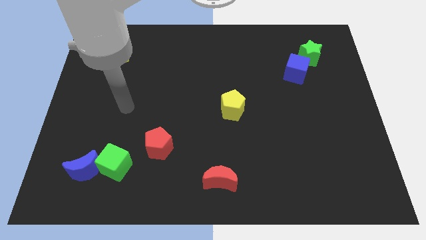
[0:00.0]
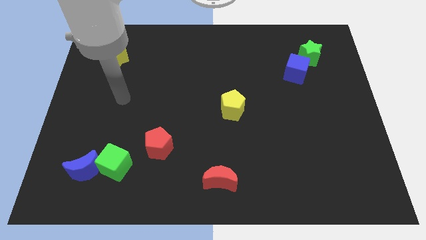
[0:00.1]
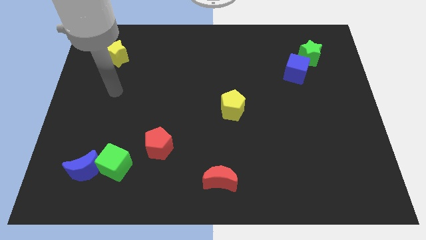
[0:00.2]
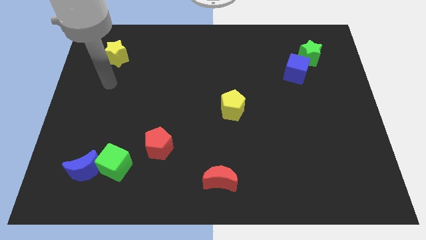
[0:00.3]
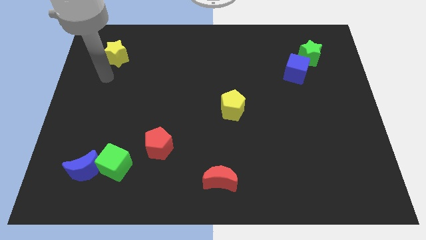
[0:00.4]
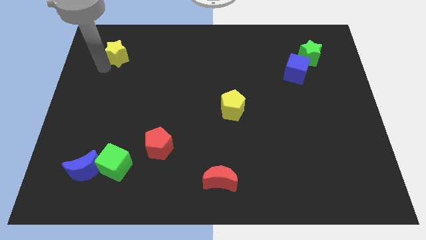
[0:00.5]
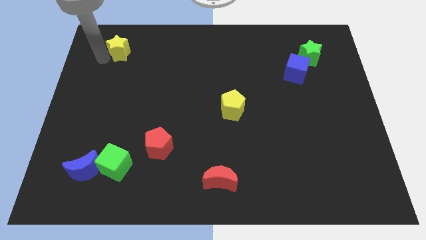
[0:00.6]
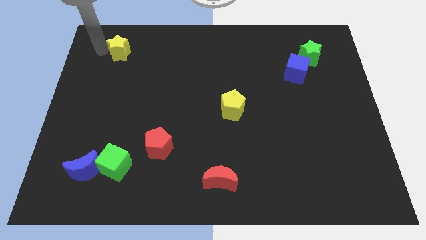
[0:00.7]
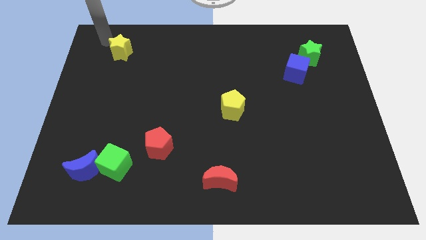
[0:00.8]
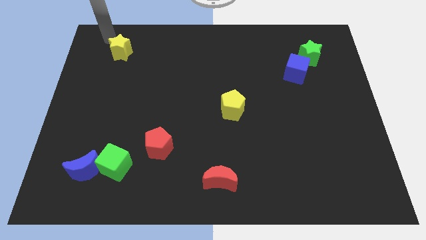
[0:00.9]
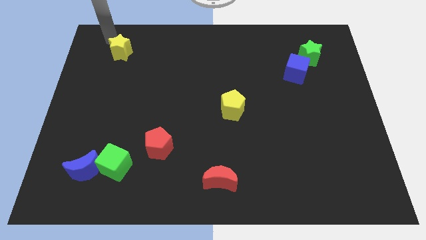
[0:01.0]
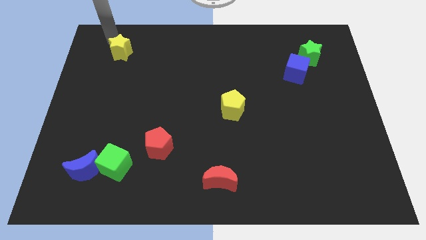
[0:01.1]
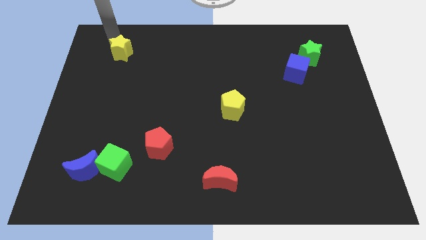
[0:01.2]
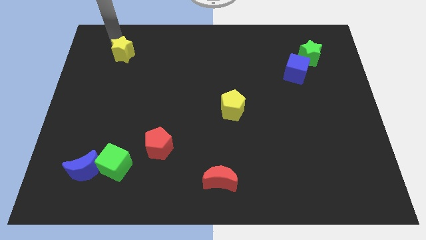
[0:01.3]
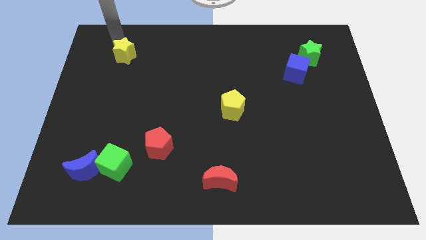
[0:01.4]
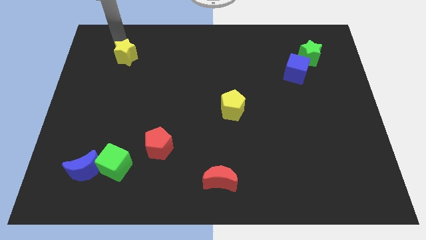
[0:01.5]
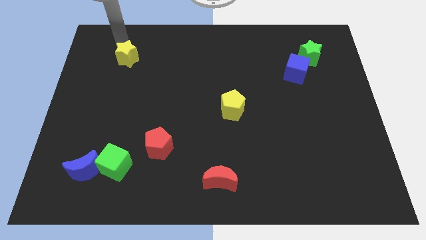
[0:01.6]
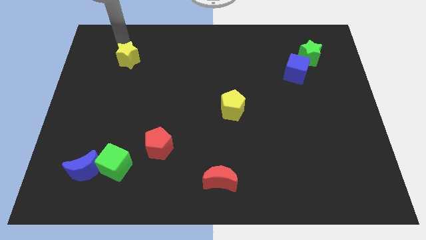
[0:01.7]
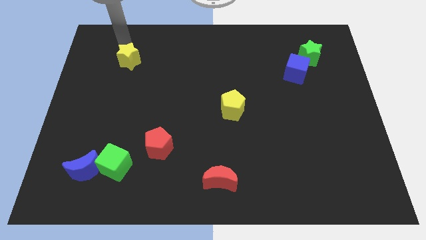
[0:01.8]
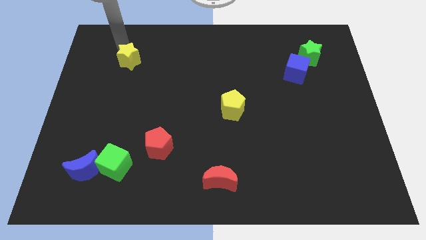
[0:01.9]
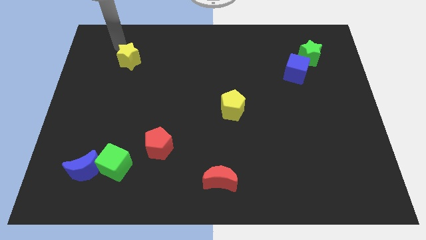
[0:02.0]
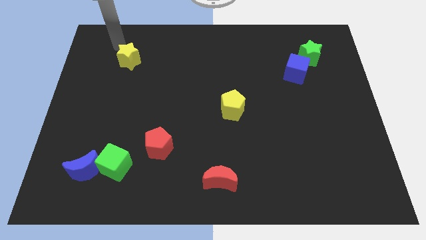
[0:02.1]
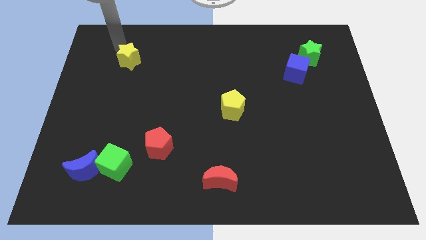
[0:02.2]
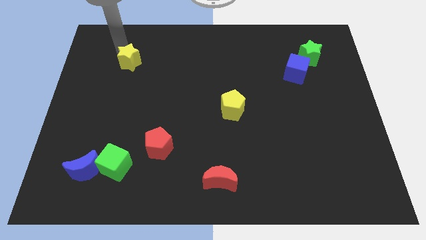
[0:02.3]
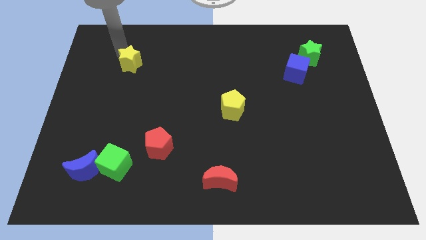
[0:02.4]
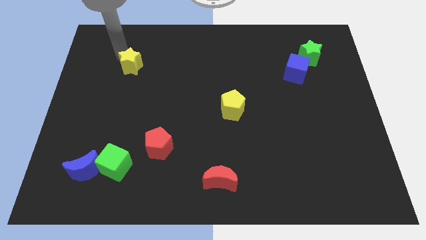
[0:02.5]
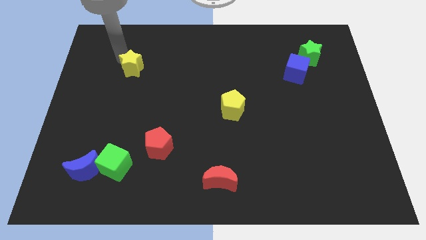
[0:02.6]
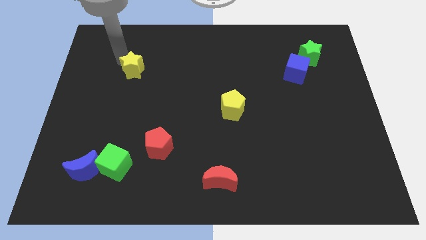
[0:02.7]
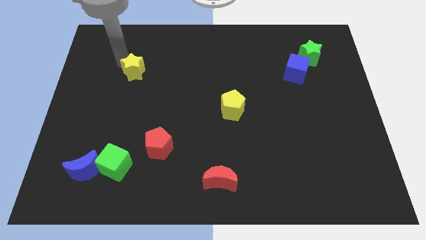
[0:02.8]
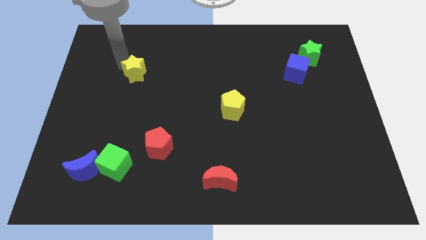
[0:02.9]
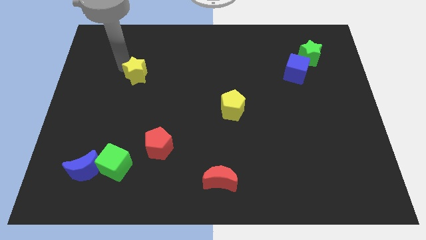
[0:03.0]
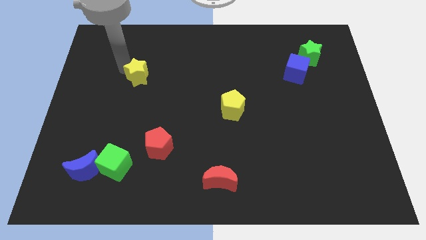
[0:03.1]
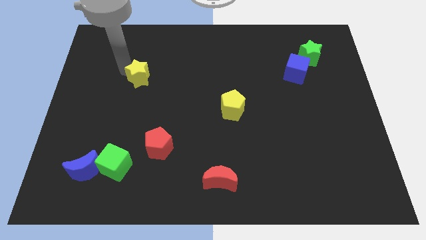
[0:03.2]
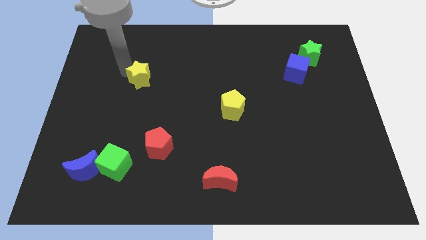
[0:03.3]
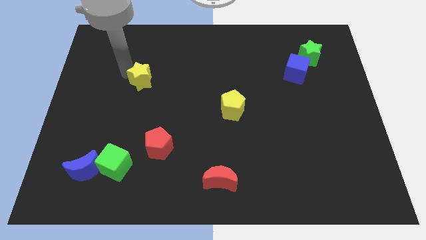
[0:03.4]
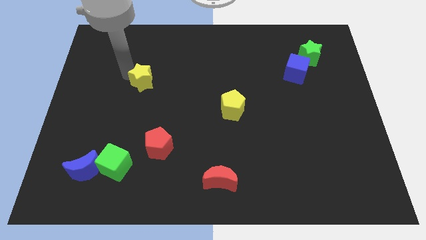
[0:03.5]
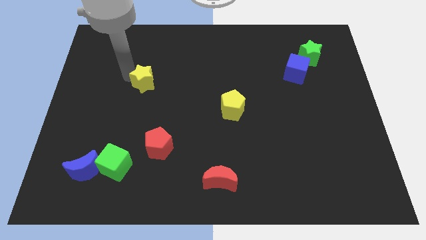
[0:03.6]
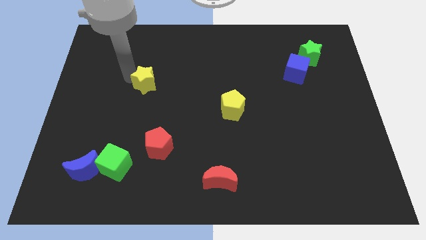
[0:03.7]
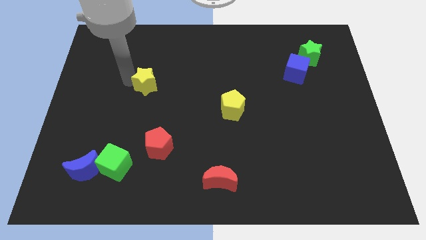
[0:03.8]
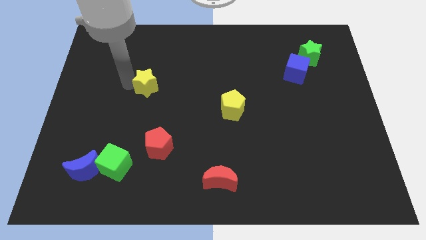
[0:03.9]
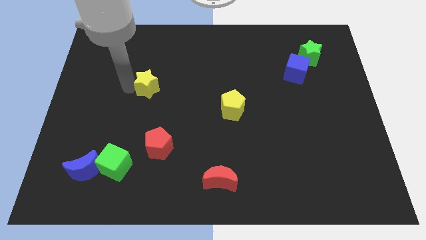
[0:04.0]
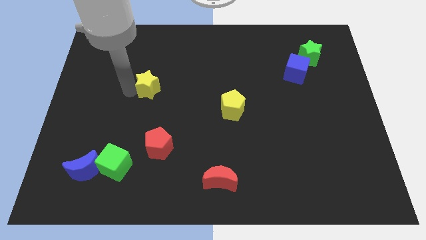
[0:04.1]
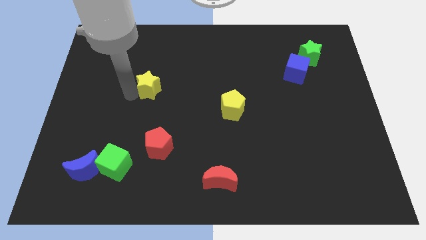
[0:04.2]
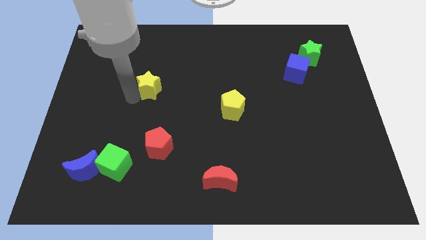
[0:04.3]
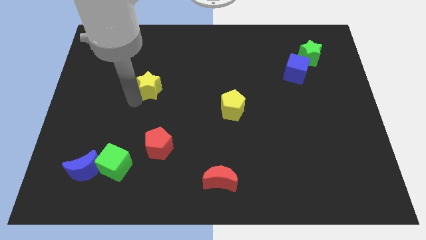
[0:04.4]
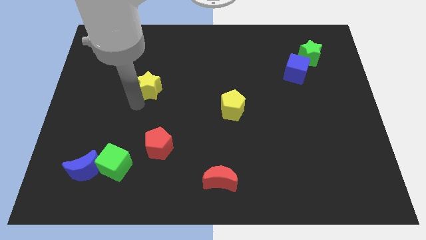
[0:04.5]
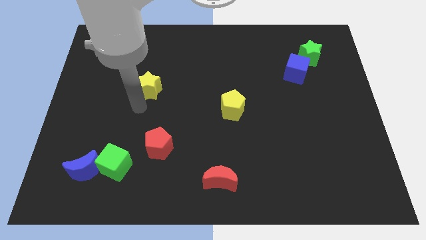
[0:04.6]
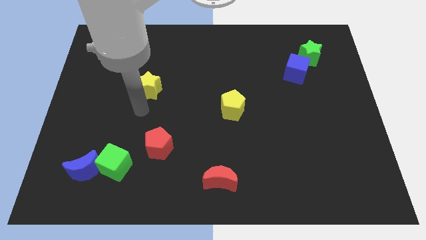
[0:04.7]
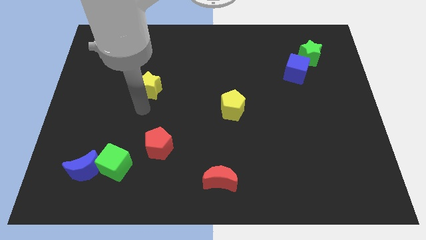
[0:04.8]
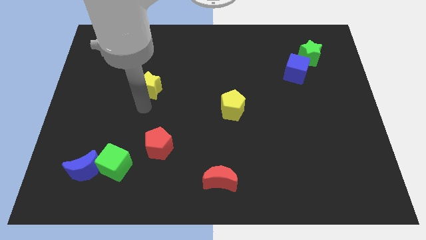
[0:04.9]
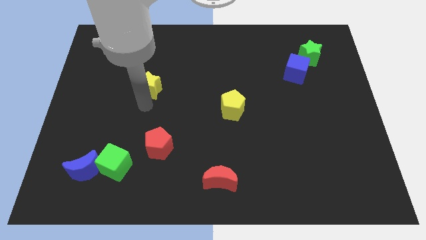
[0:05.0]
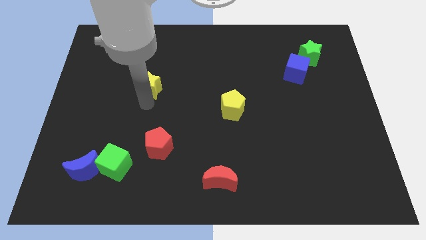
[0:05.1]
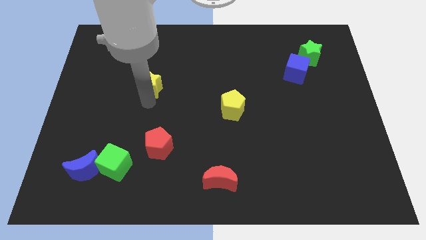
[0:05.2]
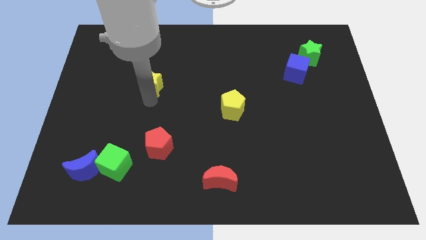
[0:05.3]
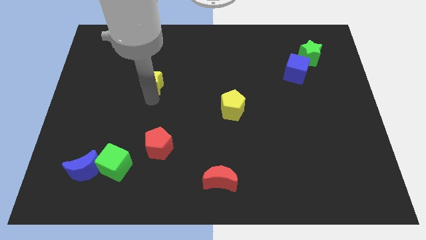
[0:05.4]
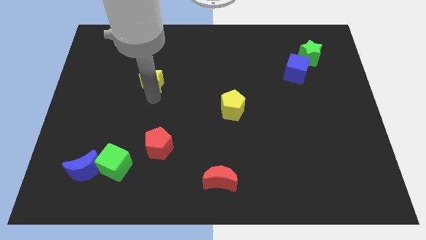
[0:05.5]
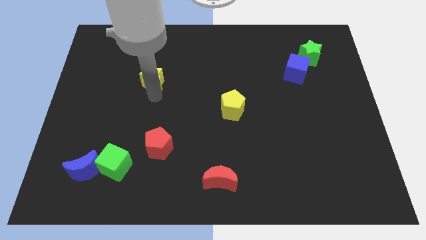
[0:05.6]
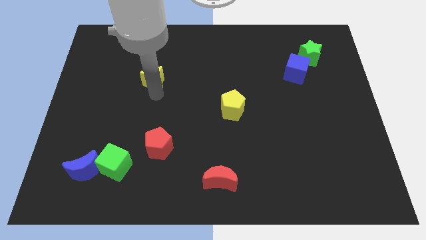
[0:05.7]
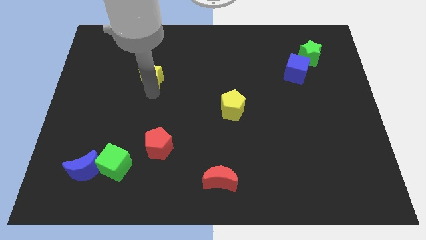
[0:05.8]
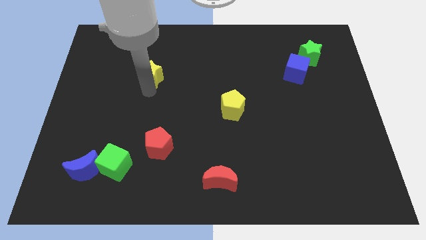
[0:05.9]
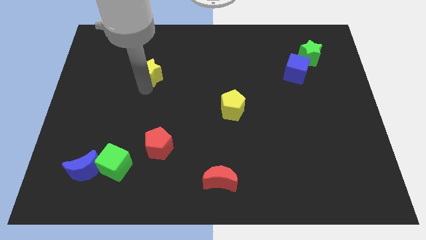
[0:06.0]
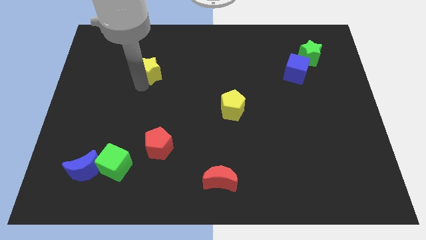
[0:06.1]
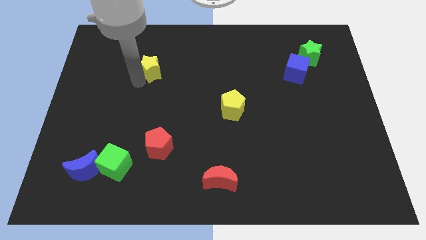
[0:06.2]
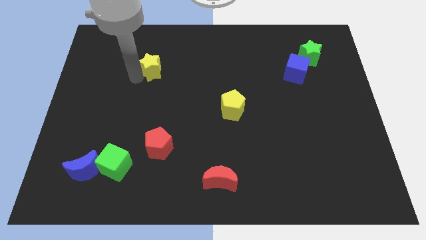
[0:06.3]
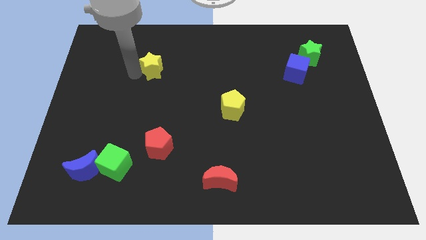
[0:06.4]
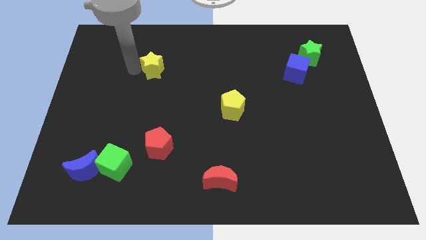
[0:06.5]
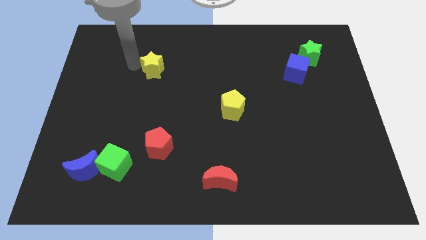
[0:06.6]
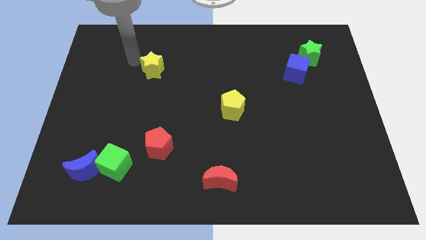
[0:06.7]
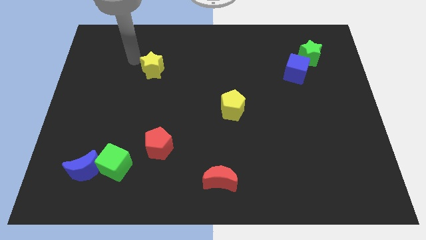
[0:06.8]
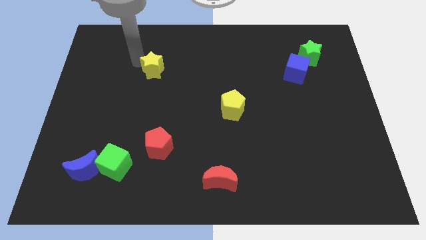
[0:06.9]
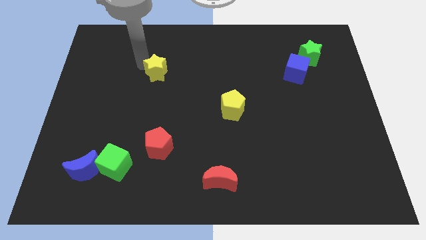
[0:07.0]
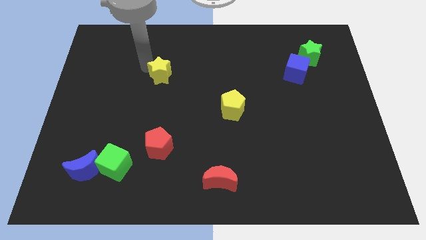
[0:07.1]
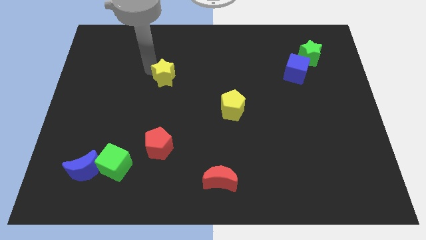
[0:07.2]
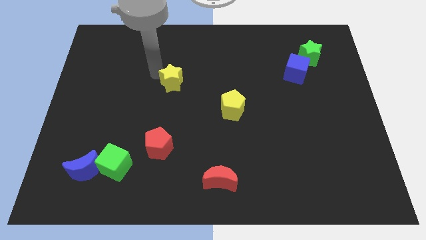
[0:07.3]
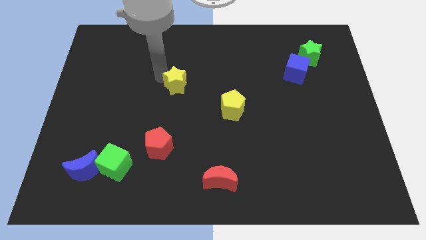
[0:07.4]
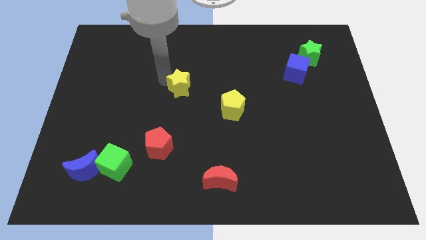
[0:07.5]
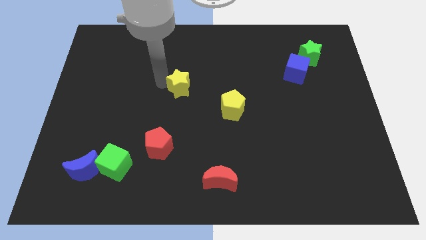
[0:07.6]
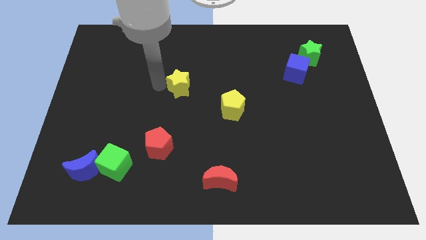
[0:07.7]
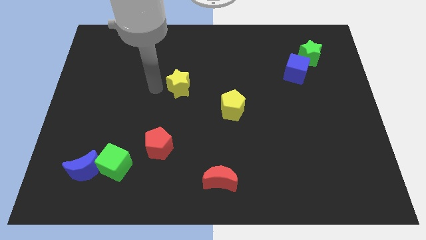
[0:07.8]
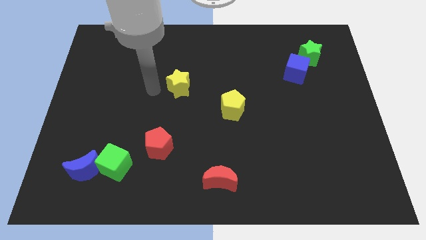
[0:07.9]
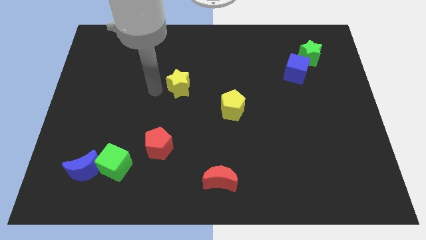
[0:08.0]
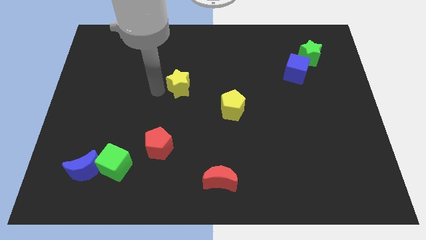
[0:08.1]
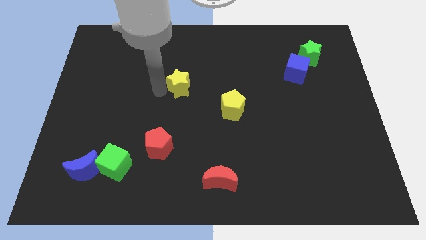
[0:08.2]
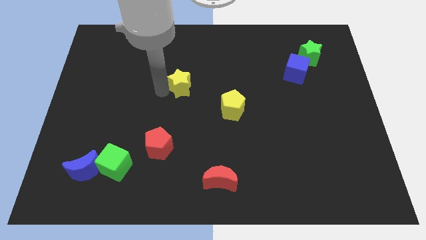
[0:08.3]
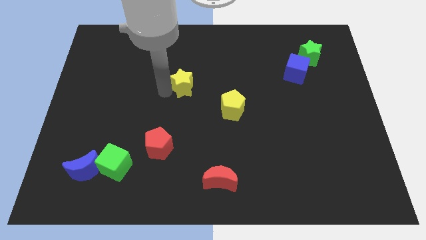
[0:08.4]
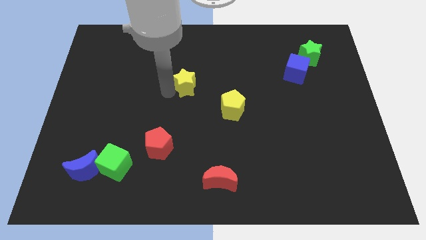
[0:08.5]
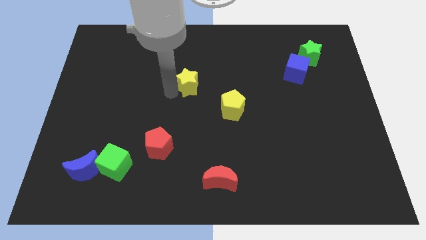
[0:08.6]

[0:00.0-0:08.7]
push the yellow star to the top left side of the yellow pentagon
